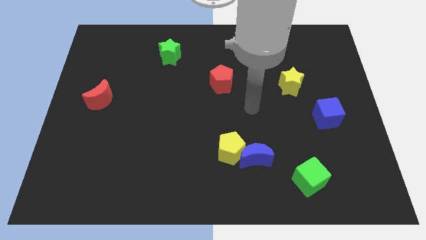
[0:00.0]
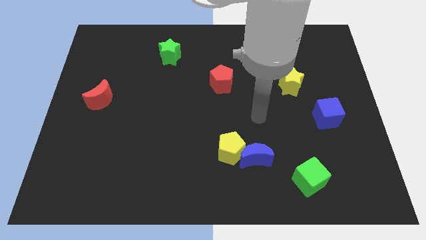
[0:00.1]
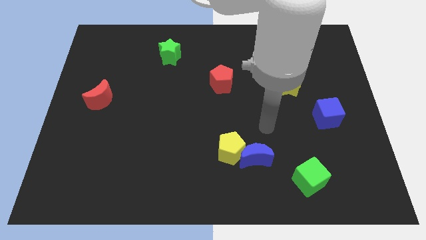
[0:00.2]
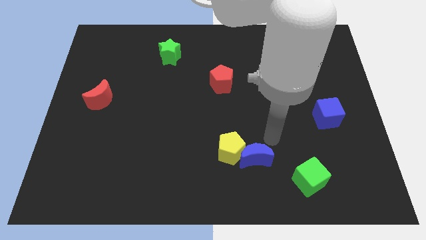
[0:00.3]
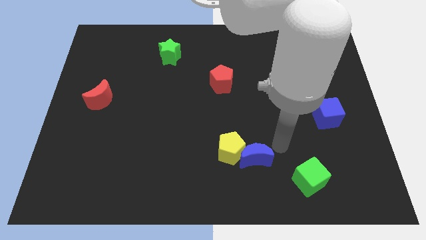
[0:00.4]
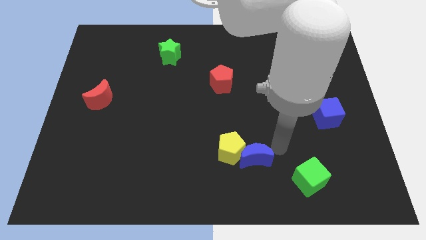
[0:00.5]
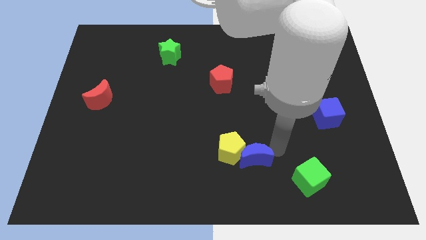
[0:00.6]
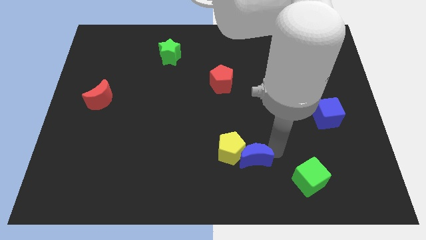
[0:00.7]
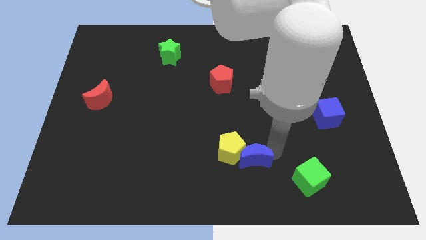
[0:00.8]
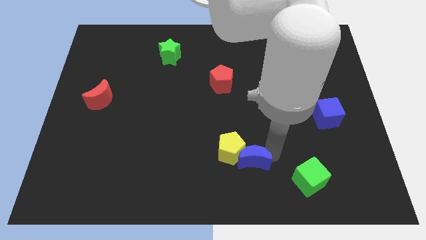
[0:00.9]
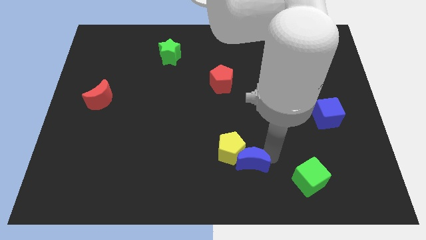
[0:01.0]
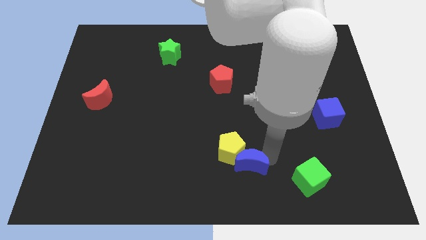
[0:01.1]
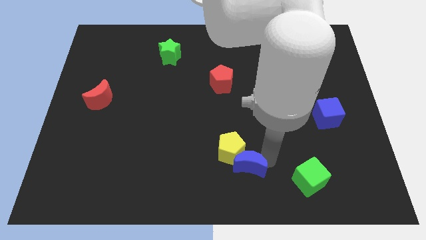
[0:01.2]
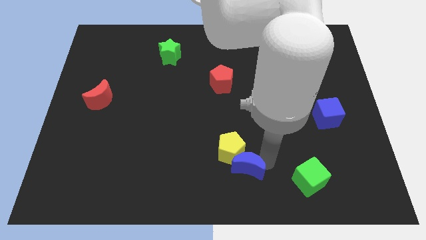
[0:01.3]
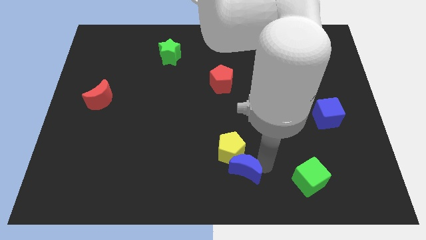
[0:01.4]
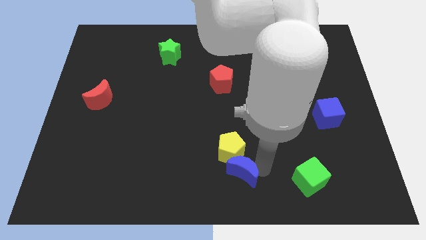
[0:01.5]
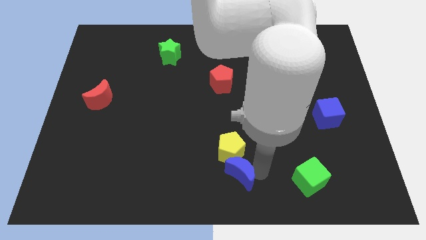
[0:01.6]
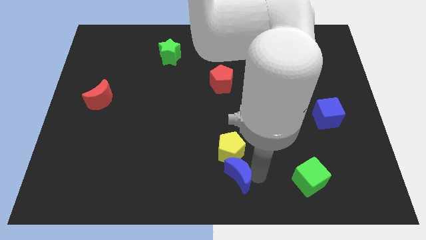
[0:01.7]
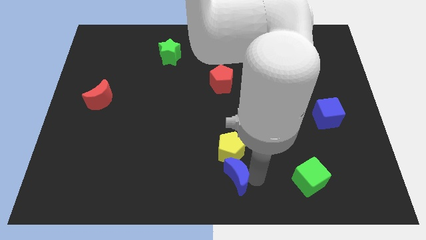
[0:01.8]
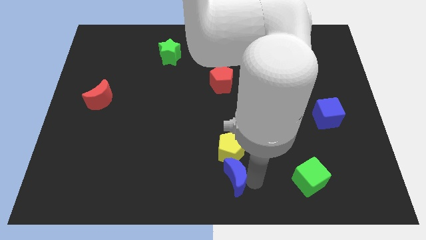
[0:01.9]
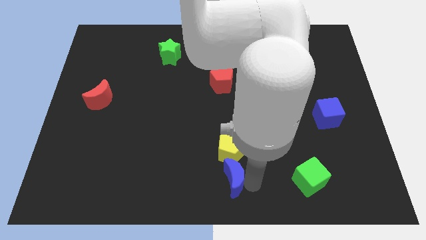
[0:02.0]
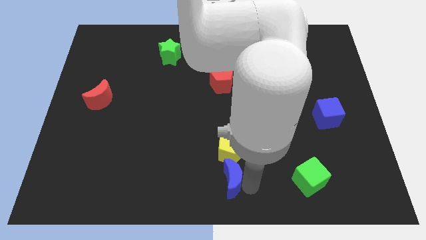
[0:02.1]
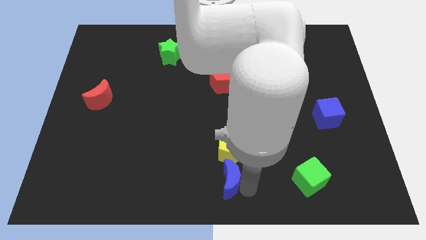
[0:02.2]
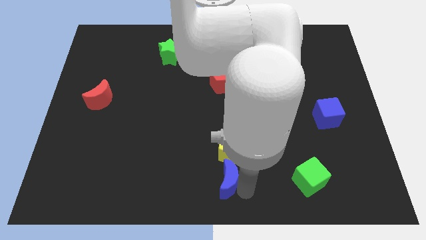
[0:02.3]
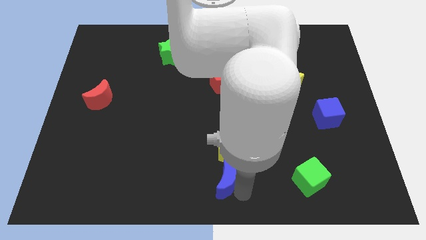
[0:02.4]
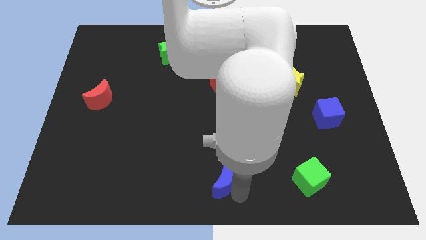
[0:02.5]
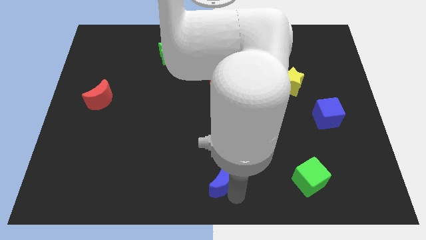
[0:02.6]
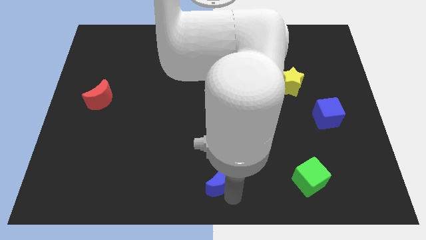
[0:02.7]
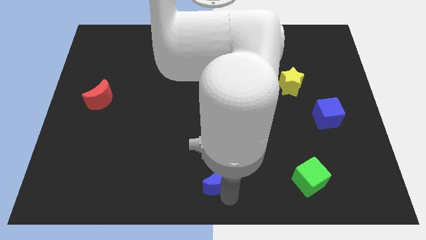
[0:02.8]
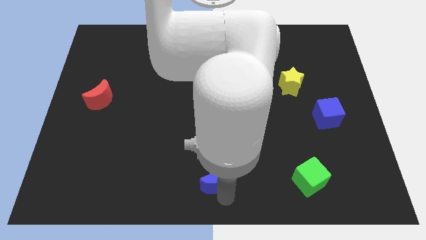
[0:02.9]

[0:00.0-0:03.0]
move the blue moon left somewhat

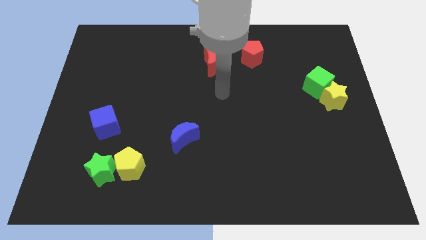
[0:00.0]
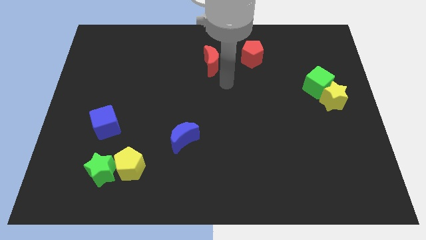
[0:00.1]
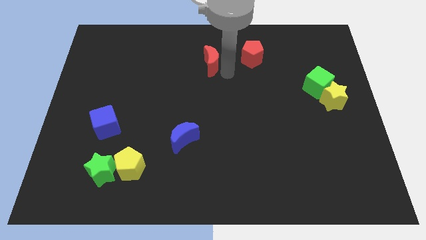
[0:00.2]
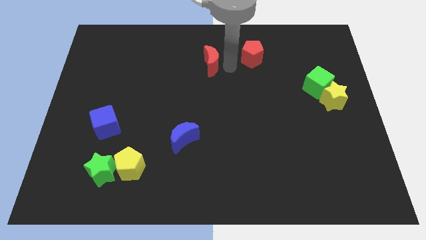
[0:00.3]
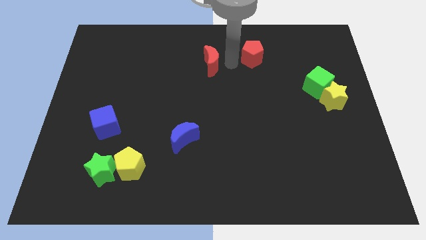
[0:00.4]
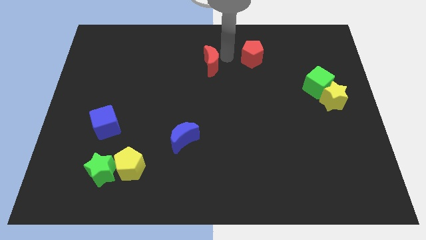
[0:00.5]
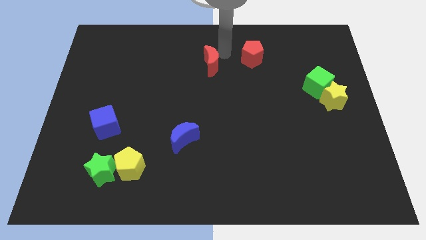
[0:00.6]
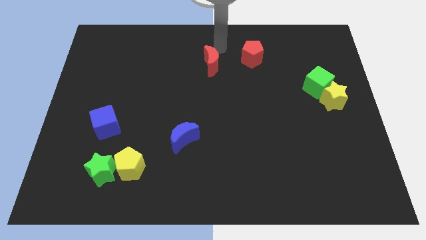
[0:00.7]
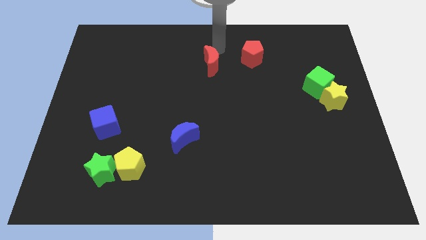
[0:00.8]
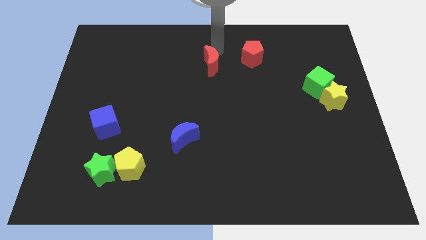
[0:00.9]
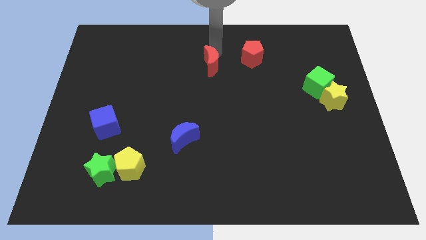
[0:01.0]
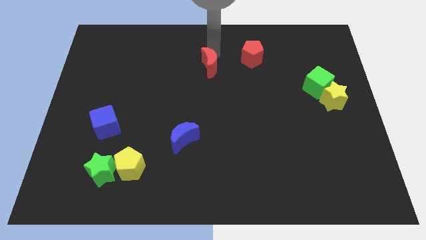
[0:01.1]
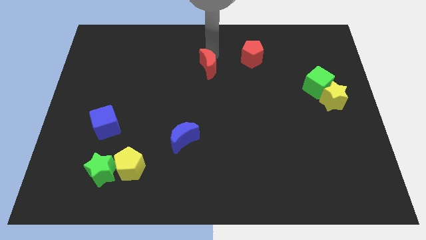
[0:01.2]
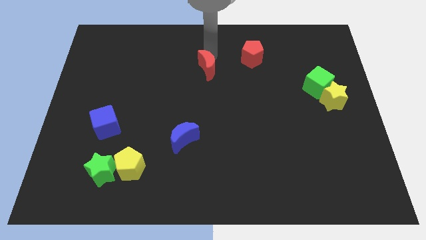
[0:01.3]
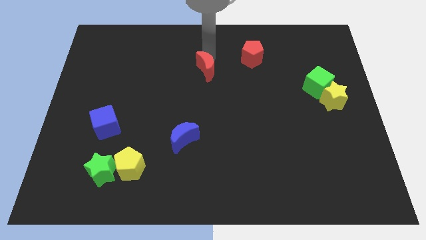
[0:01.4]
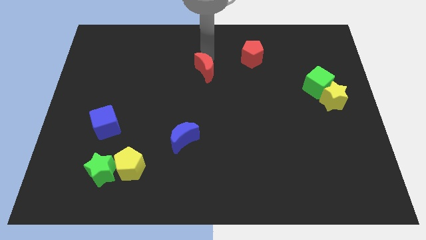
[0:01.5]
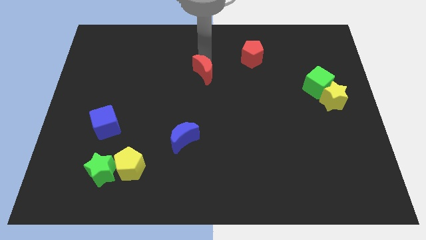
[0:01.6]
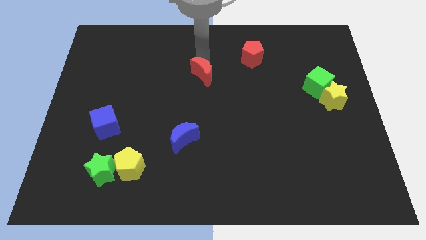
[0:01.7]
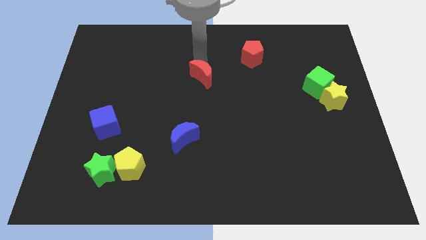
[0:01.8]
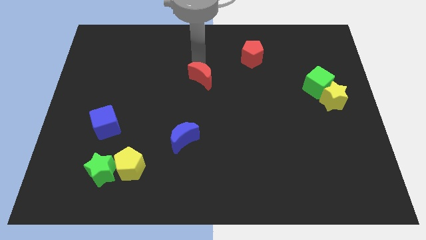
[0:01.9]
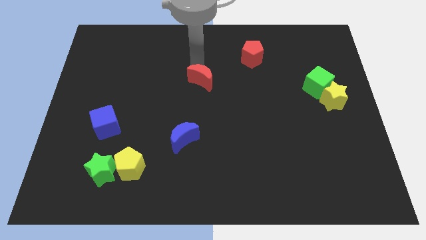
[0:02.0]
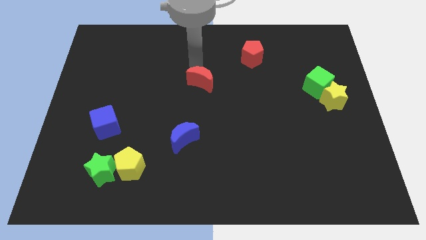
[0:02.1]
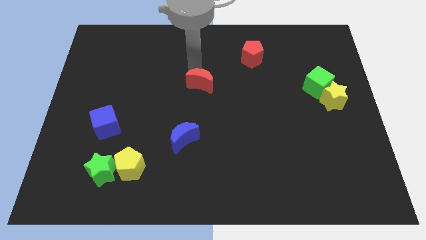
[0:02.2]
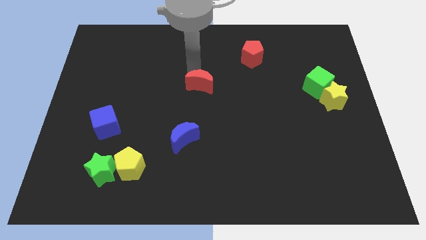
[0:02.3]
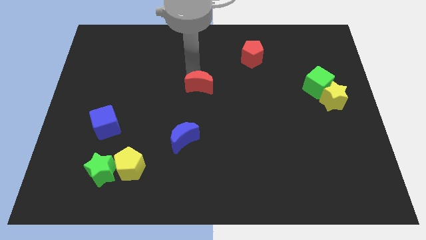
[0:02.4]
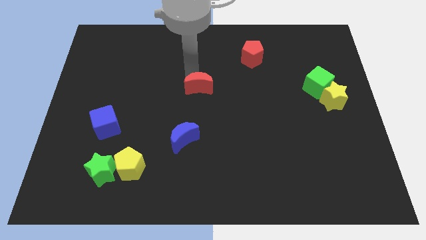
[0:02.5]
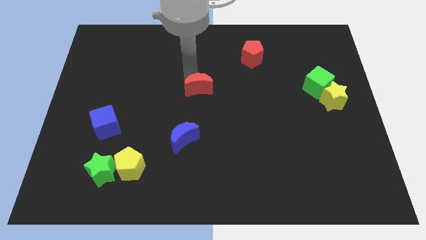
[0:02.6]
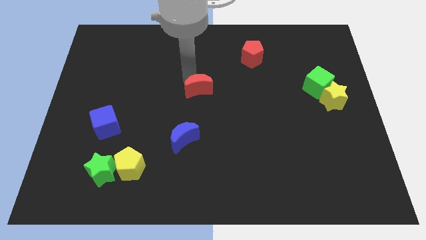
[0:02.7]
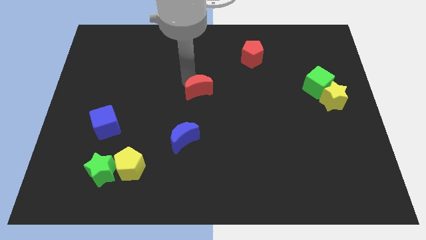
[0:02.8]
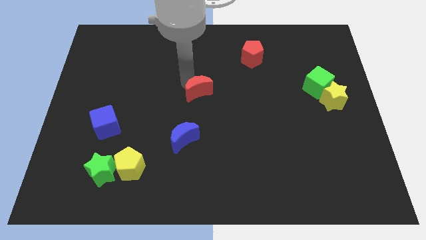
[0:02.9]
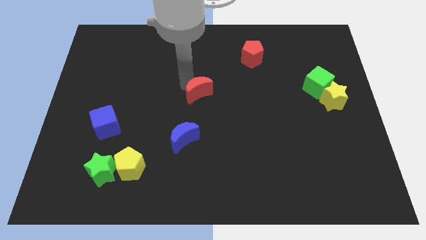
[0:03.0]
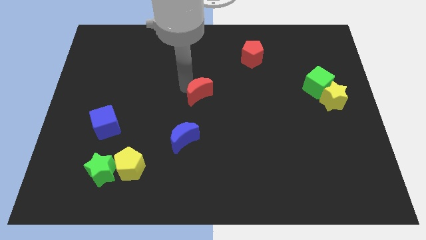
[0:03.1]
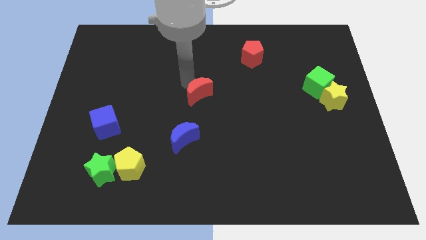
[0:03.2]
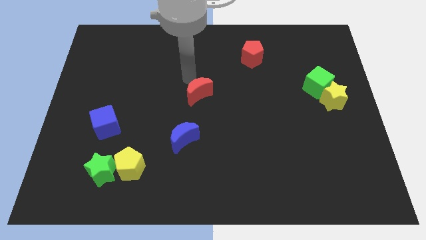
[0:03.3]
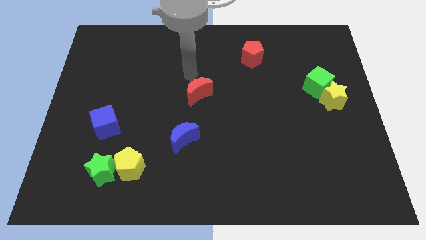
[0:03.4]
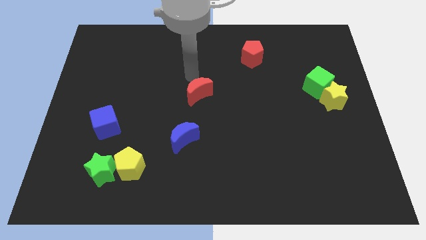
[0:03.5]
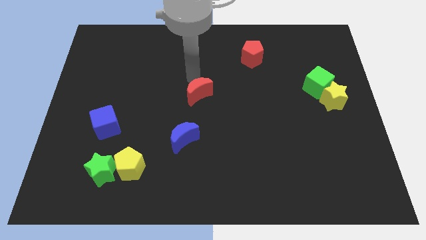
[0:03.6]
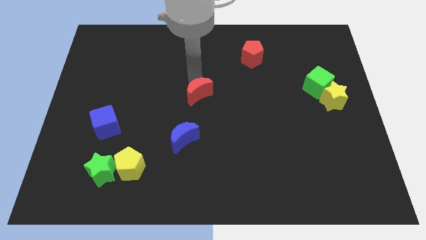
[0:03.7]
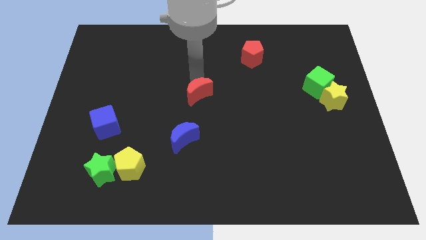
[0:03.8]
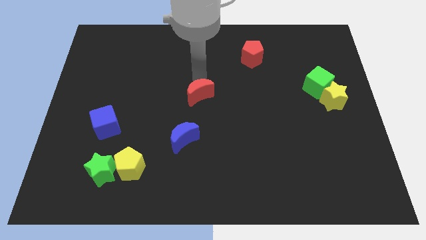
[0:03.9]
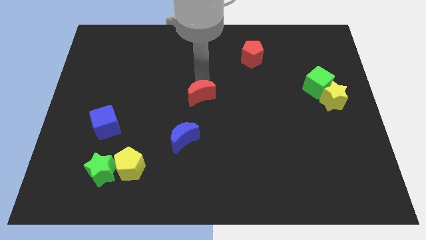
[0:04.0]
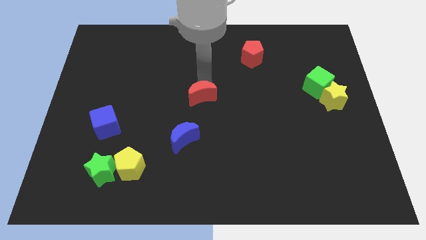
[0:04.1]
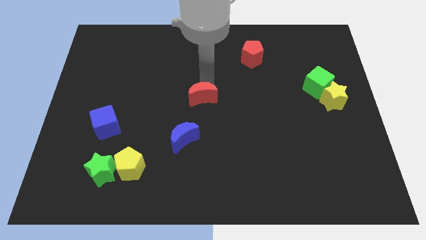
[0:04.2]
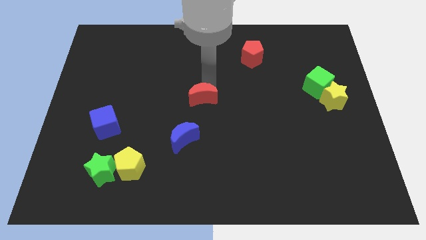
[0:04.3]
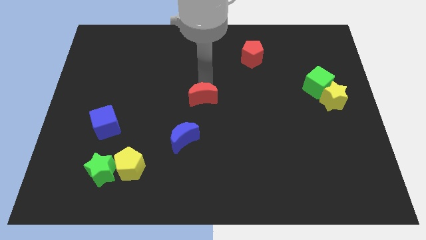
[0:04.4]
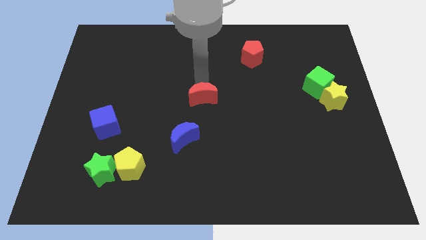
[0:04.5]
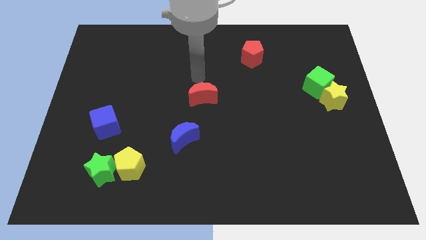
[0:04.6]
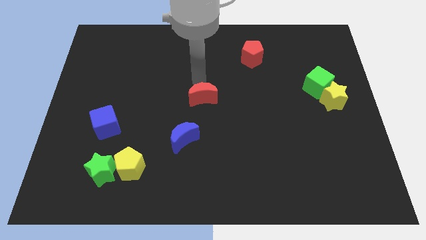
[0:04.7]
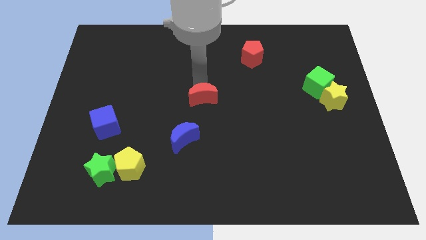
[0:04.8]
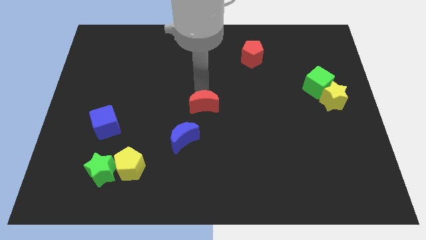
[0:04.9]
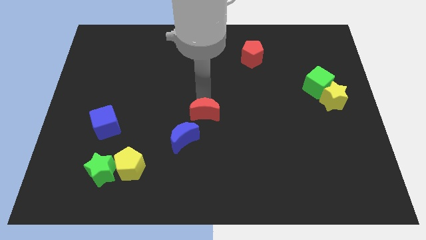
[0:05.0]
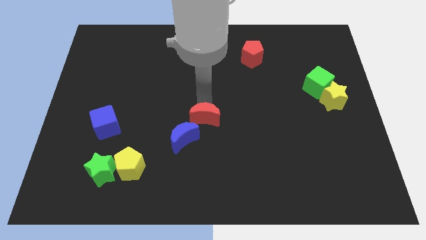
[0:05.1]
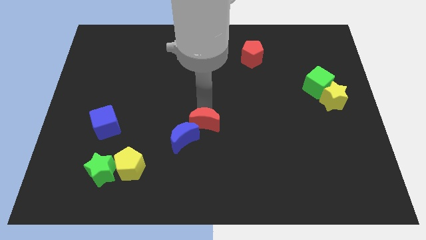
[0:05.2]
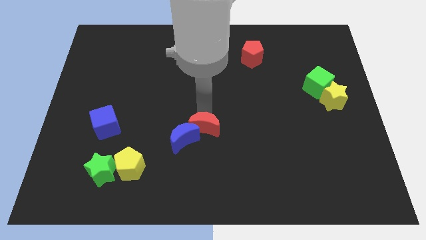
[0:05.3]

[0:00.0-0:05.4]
move the red moon downwards
